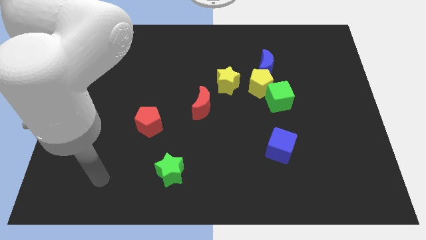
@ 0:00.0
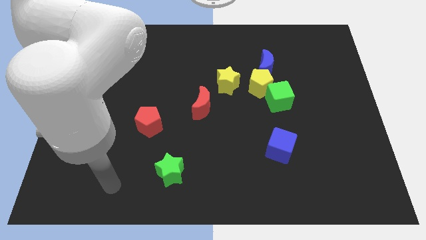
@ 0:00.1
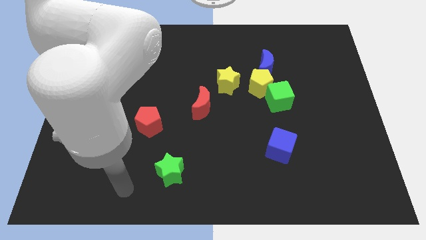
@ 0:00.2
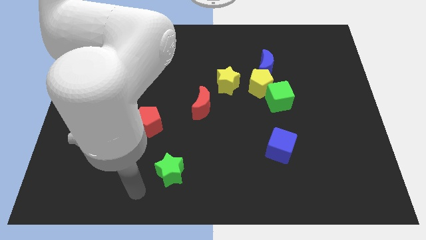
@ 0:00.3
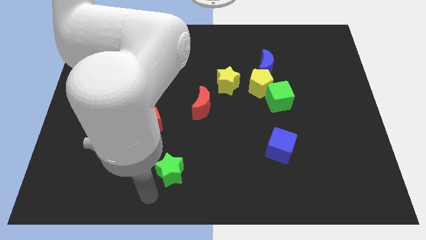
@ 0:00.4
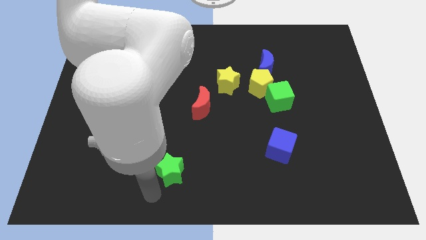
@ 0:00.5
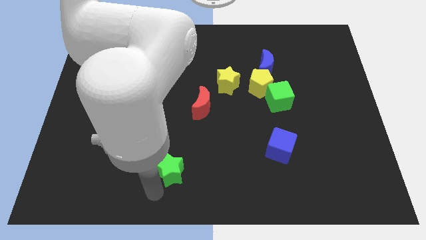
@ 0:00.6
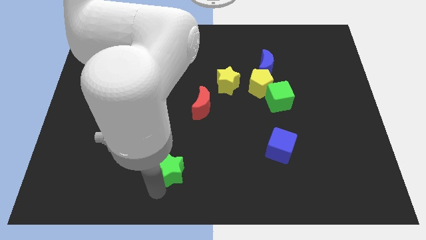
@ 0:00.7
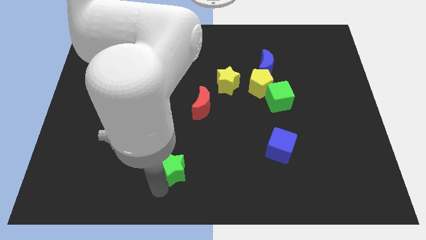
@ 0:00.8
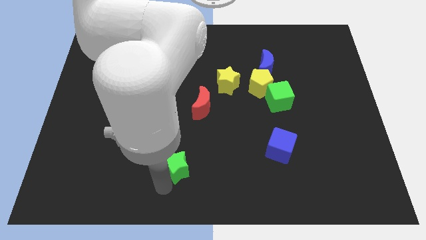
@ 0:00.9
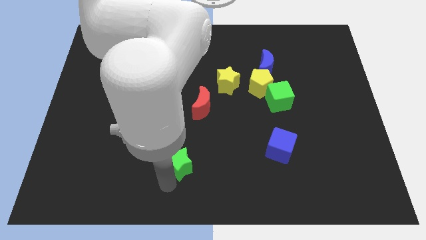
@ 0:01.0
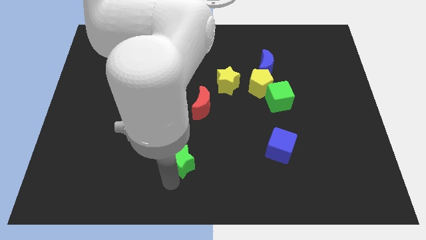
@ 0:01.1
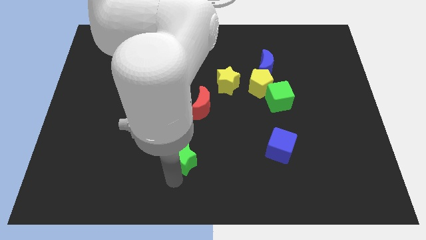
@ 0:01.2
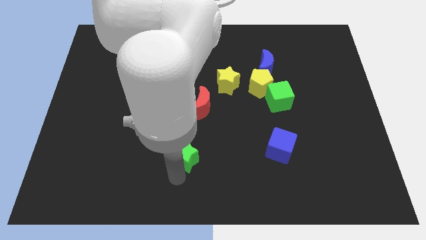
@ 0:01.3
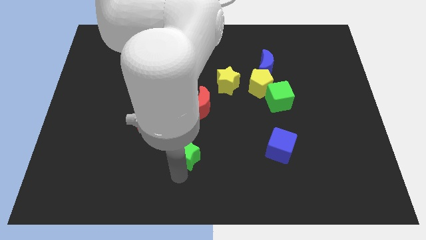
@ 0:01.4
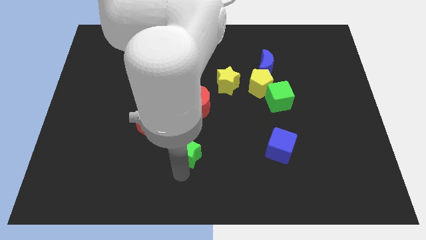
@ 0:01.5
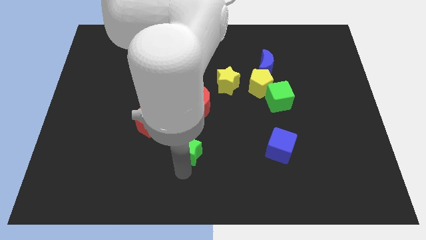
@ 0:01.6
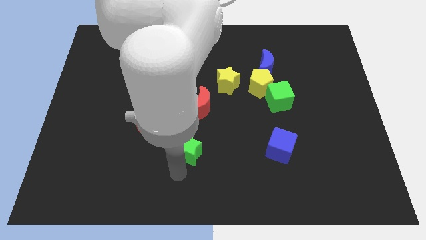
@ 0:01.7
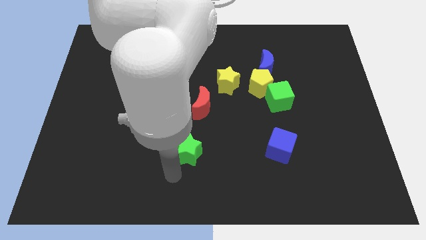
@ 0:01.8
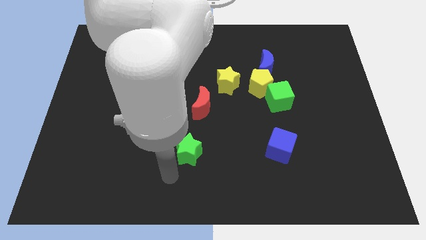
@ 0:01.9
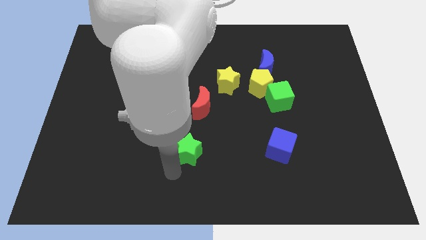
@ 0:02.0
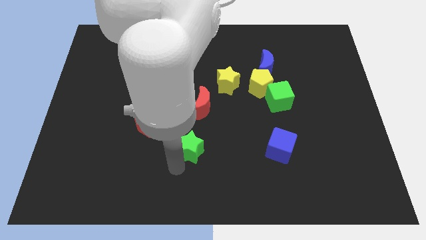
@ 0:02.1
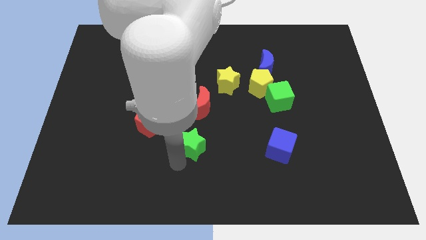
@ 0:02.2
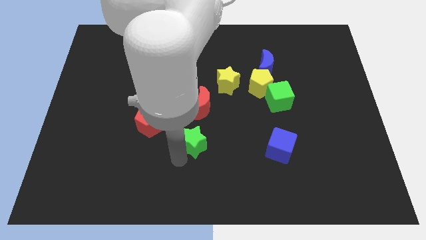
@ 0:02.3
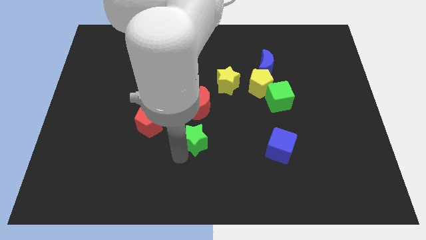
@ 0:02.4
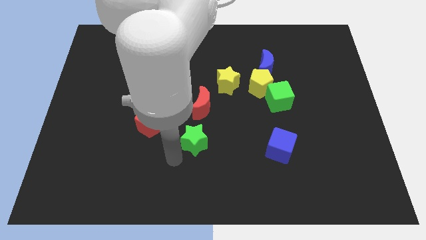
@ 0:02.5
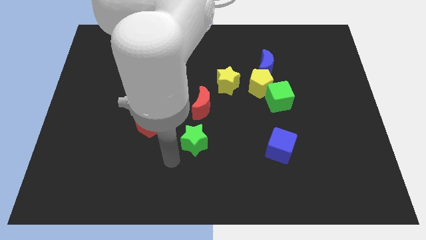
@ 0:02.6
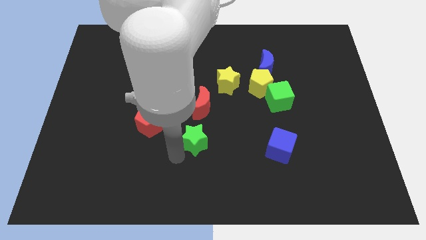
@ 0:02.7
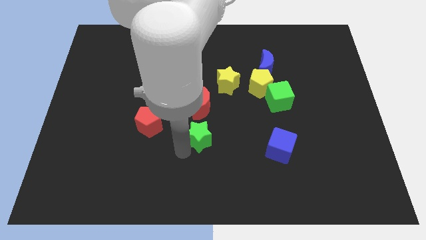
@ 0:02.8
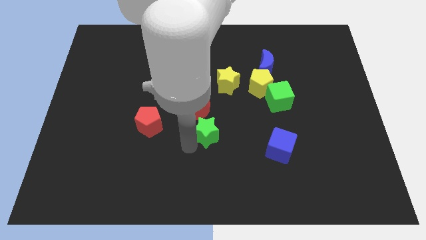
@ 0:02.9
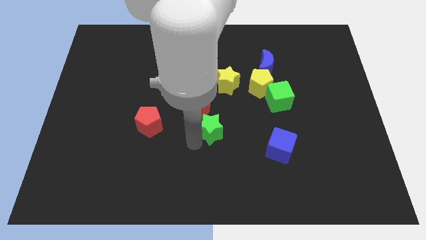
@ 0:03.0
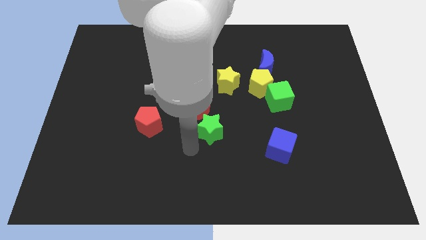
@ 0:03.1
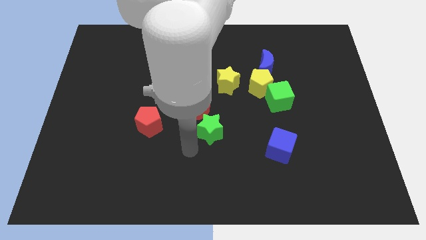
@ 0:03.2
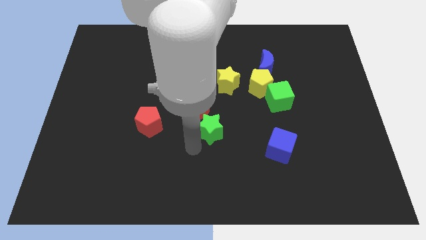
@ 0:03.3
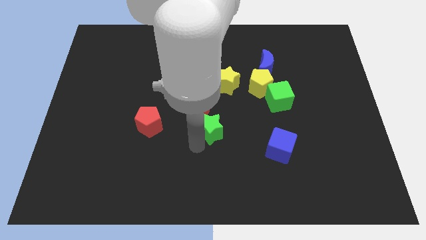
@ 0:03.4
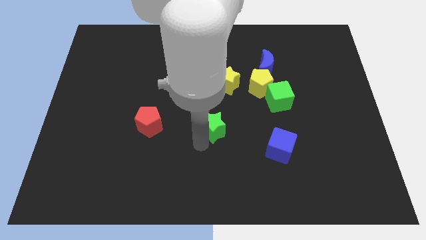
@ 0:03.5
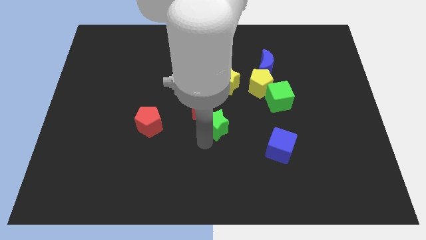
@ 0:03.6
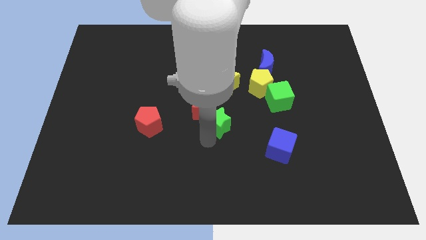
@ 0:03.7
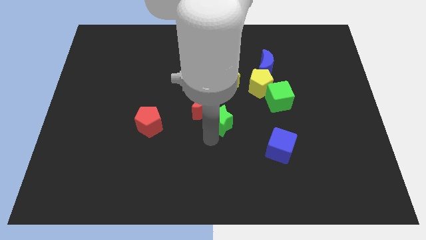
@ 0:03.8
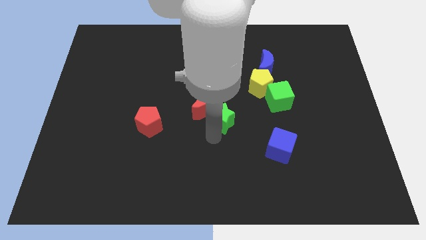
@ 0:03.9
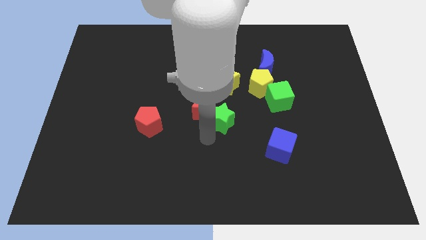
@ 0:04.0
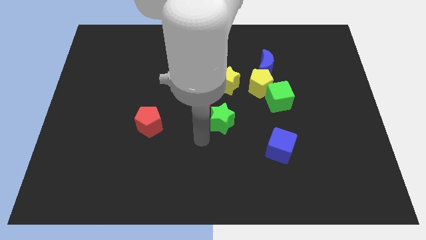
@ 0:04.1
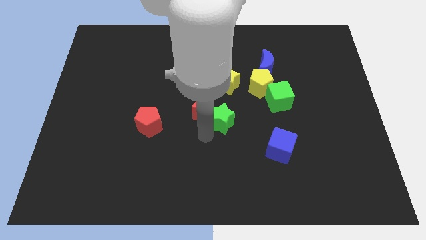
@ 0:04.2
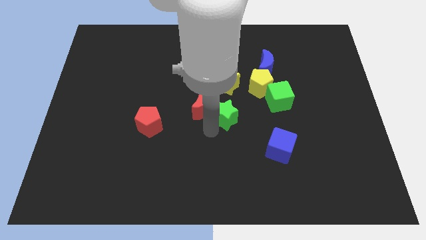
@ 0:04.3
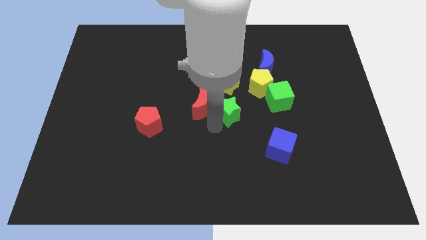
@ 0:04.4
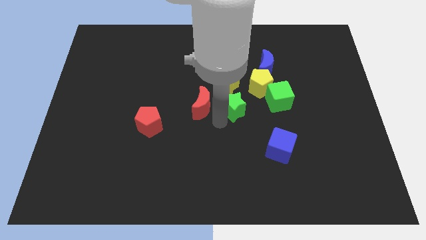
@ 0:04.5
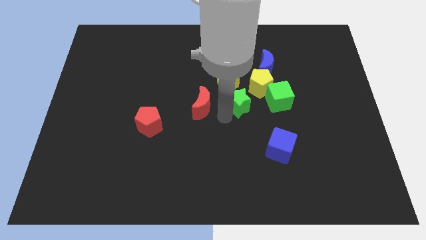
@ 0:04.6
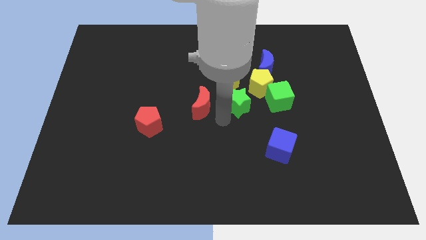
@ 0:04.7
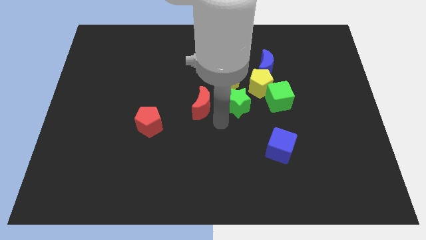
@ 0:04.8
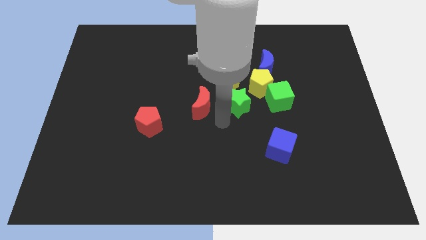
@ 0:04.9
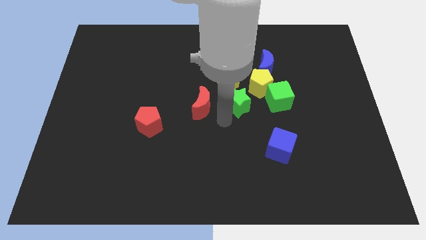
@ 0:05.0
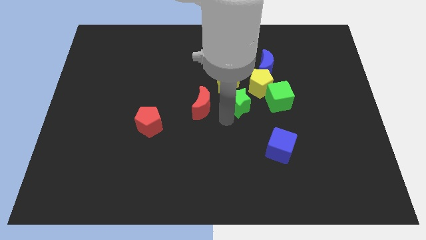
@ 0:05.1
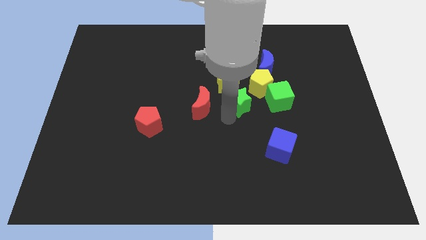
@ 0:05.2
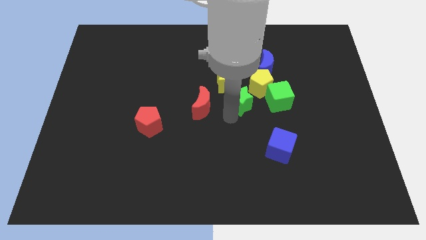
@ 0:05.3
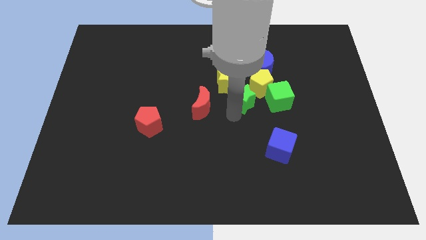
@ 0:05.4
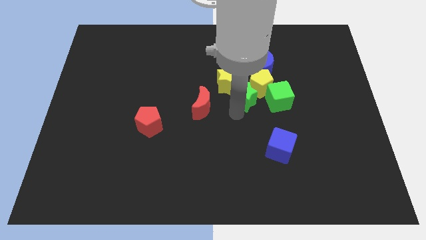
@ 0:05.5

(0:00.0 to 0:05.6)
push the green star next to the yellow pentagon

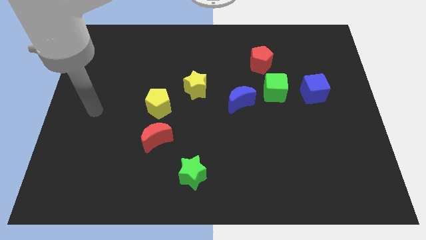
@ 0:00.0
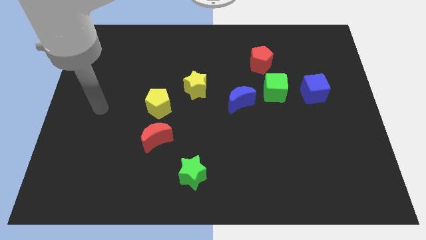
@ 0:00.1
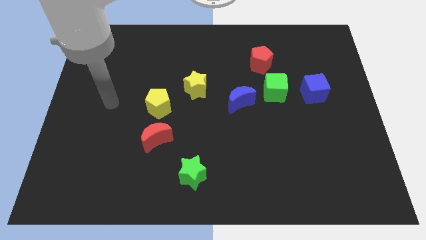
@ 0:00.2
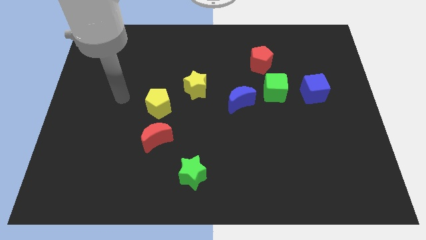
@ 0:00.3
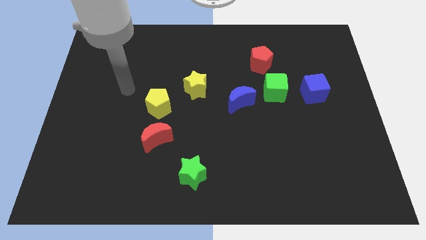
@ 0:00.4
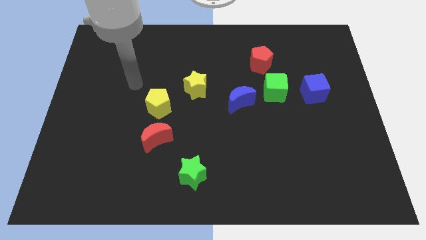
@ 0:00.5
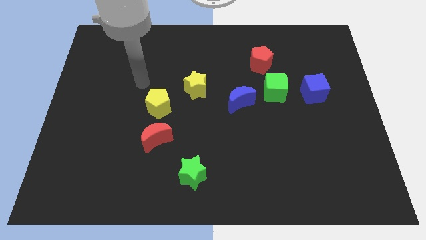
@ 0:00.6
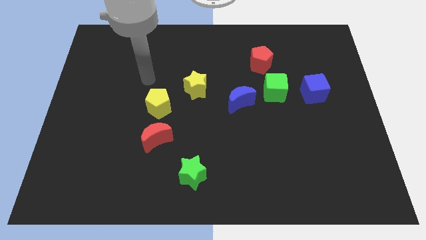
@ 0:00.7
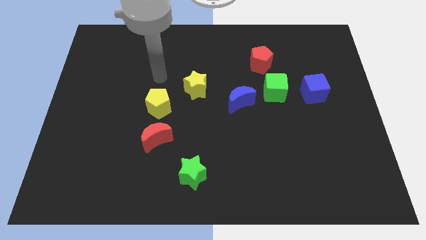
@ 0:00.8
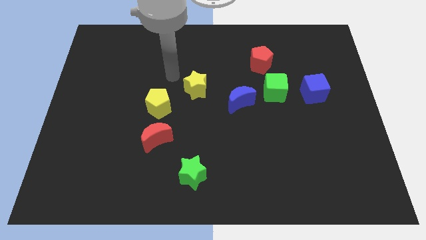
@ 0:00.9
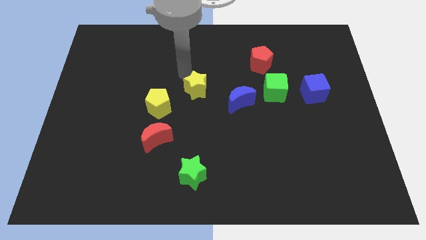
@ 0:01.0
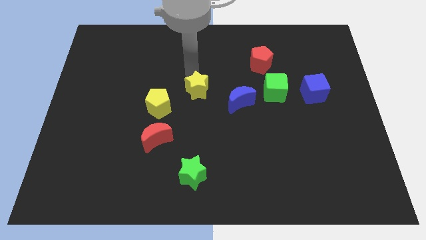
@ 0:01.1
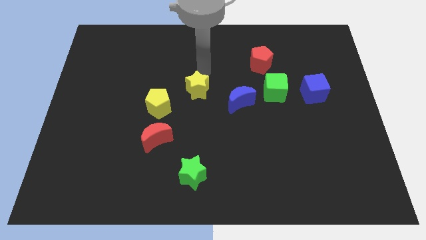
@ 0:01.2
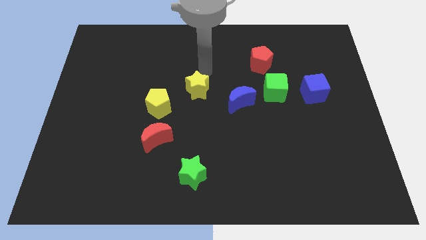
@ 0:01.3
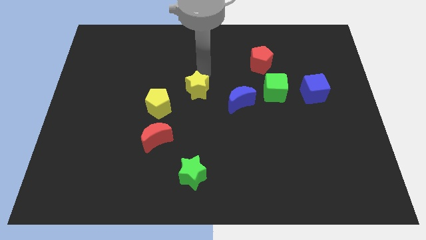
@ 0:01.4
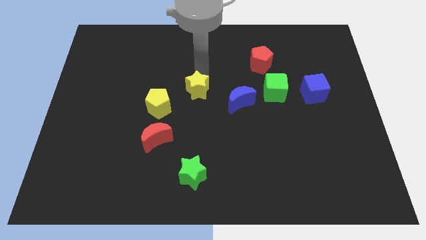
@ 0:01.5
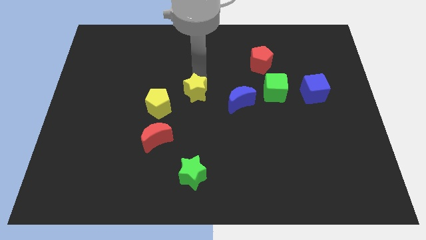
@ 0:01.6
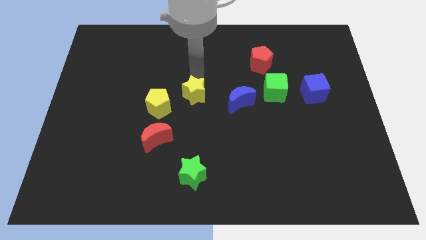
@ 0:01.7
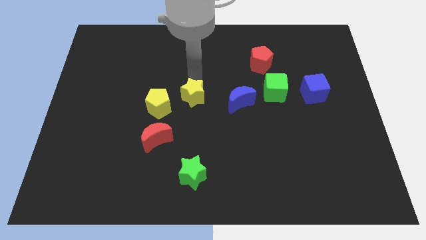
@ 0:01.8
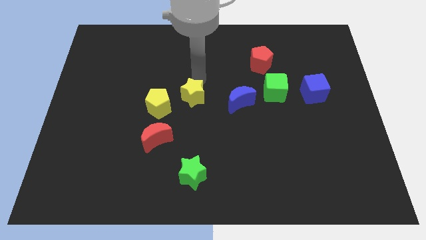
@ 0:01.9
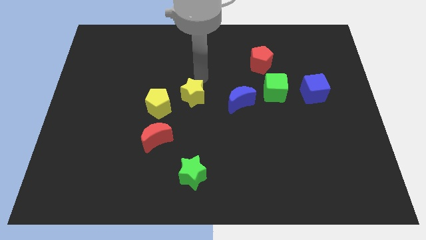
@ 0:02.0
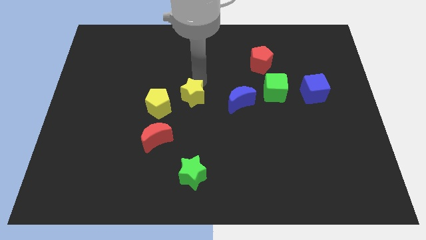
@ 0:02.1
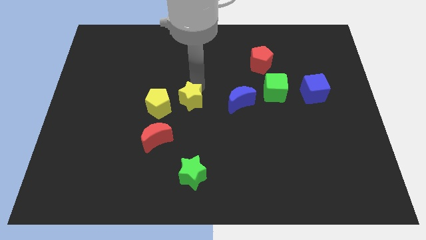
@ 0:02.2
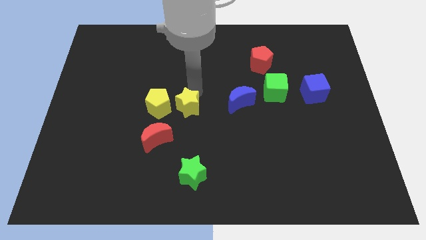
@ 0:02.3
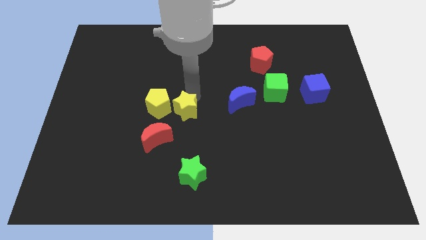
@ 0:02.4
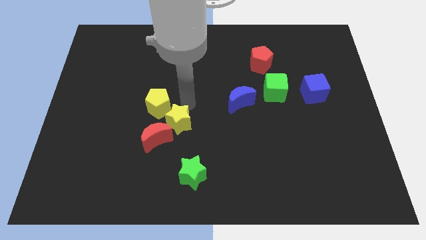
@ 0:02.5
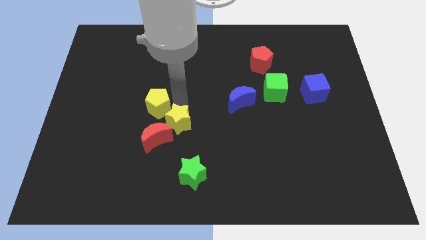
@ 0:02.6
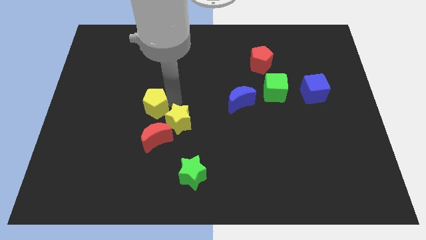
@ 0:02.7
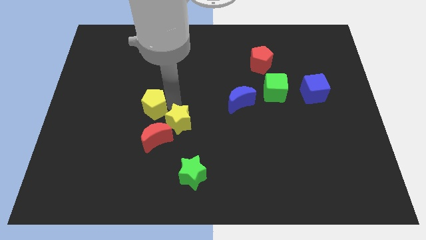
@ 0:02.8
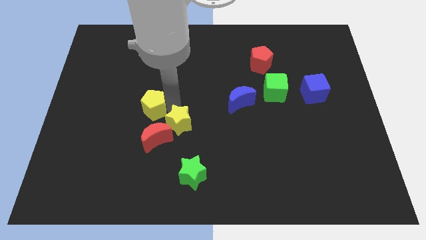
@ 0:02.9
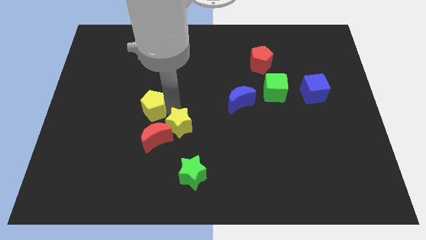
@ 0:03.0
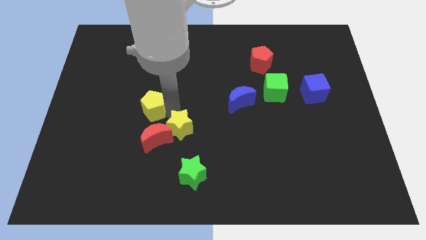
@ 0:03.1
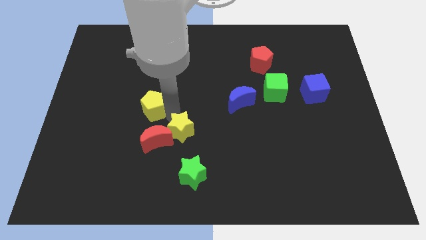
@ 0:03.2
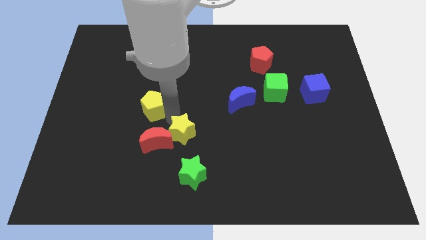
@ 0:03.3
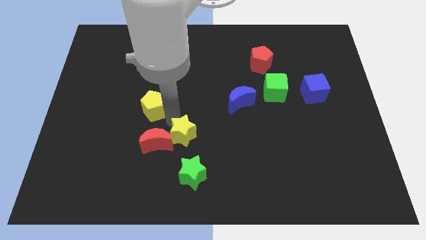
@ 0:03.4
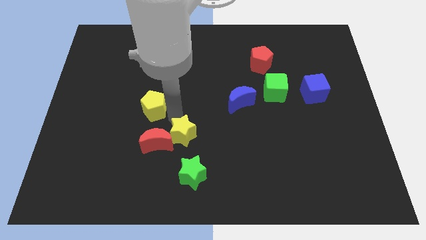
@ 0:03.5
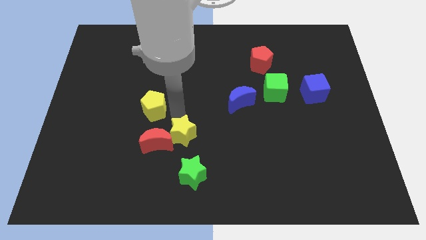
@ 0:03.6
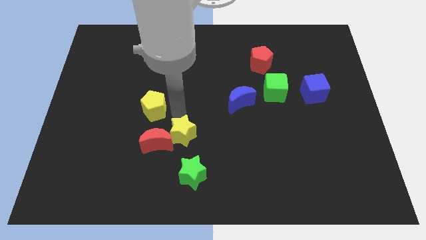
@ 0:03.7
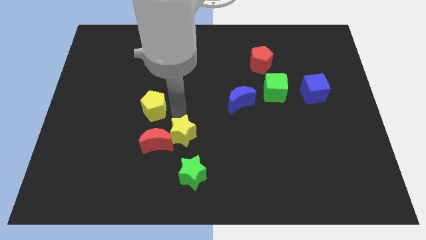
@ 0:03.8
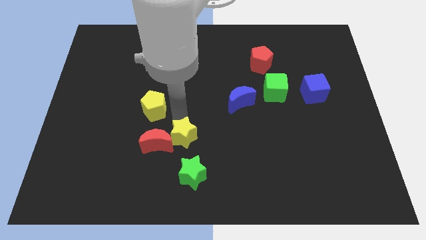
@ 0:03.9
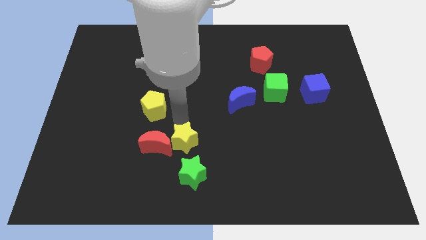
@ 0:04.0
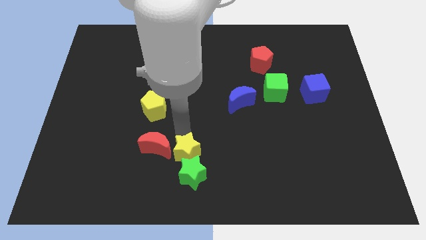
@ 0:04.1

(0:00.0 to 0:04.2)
push the yellow star close to the green star
